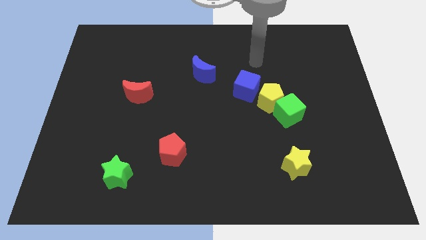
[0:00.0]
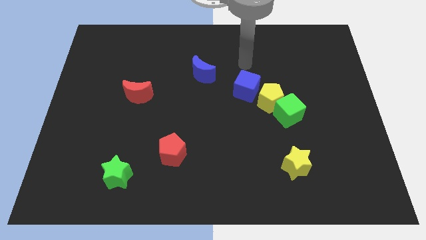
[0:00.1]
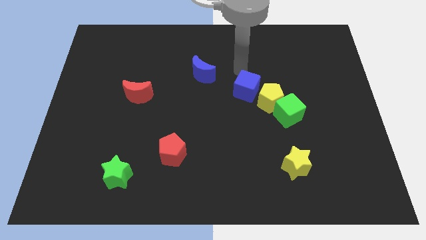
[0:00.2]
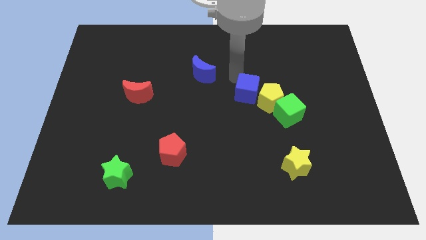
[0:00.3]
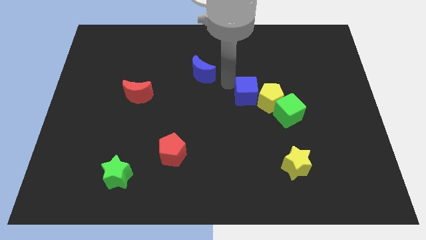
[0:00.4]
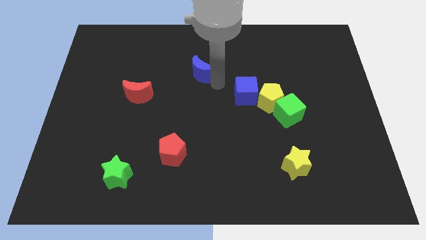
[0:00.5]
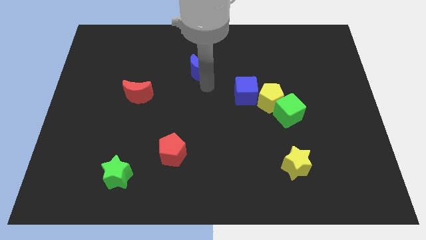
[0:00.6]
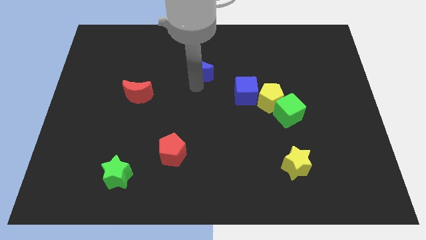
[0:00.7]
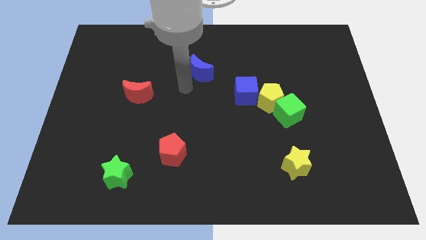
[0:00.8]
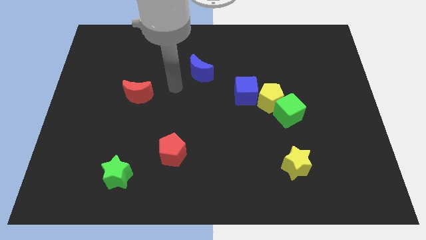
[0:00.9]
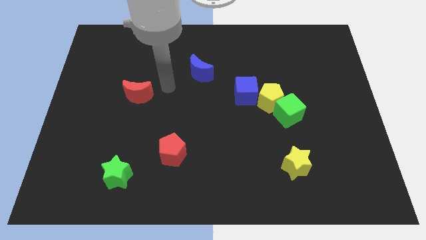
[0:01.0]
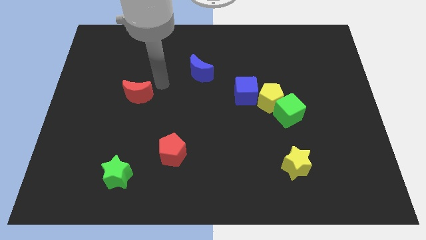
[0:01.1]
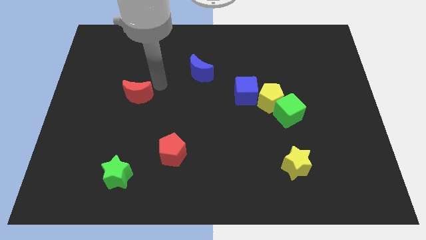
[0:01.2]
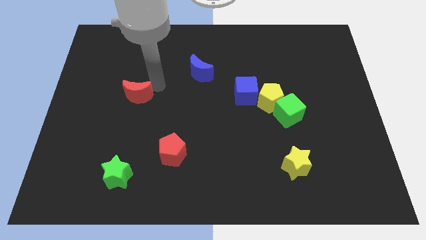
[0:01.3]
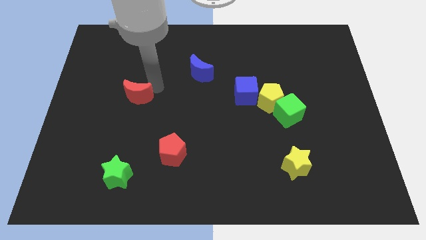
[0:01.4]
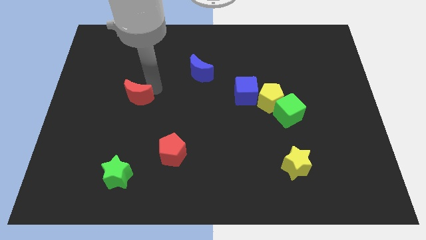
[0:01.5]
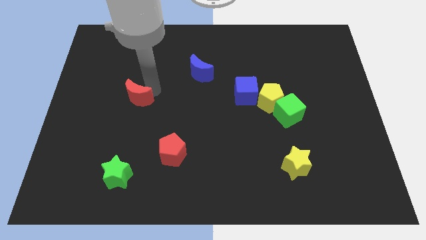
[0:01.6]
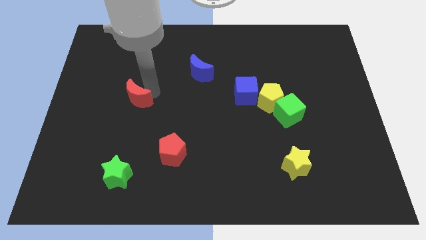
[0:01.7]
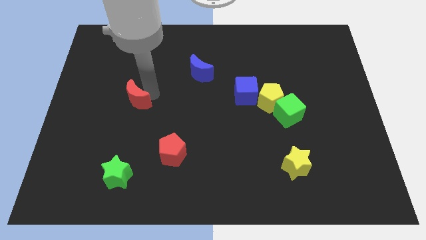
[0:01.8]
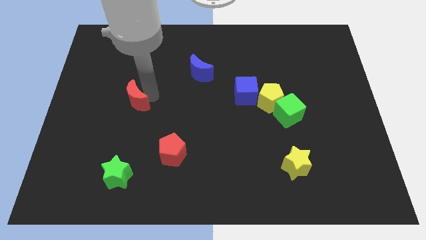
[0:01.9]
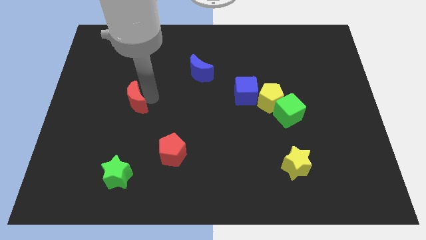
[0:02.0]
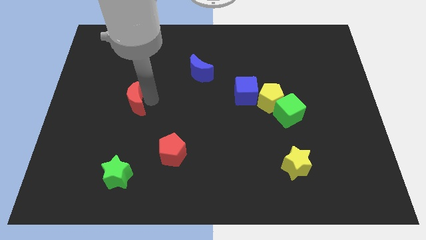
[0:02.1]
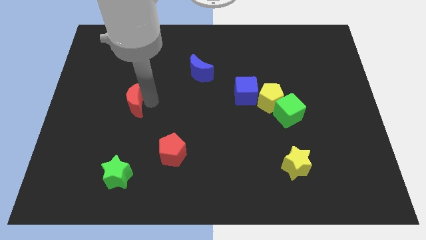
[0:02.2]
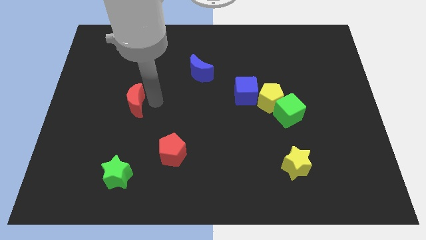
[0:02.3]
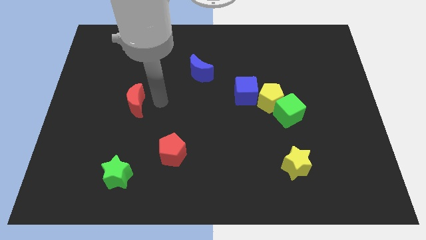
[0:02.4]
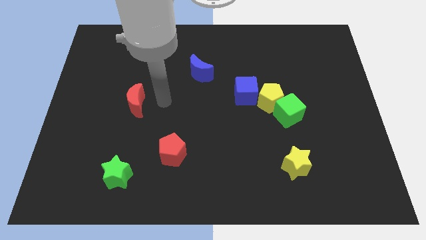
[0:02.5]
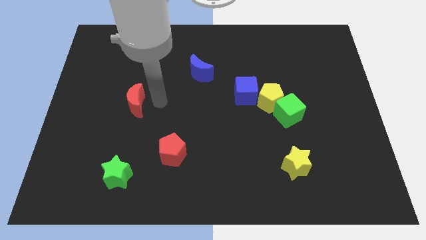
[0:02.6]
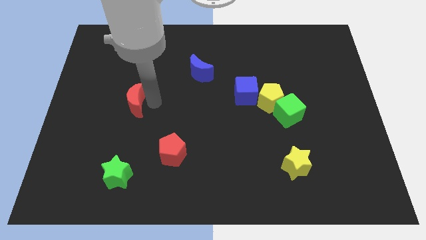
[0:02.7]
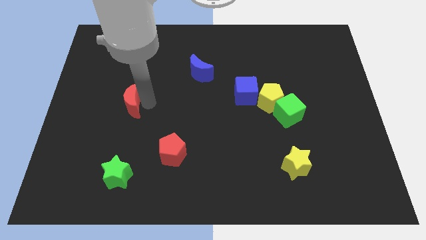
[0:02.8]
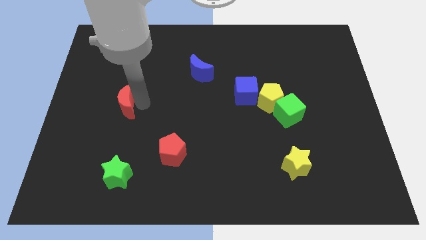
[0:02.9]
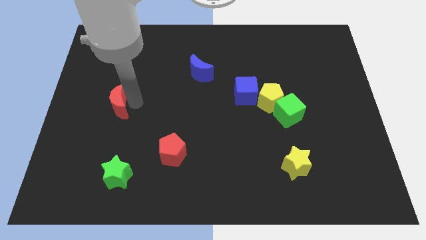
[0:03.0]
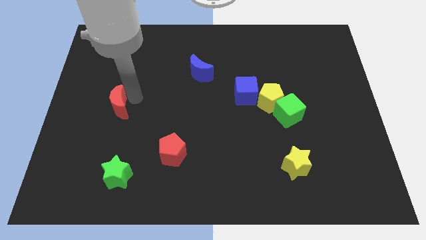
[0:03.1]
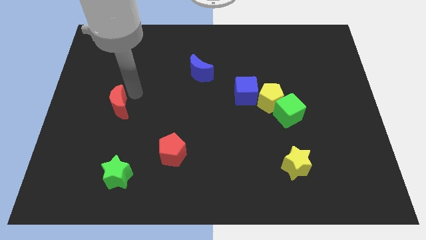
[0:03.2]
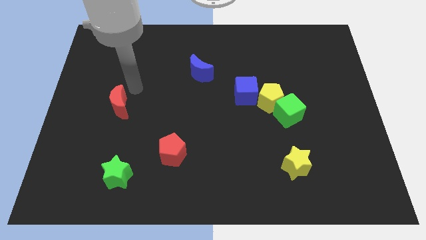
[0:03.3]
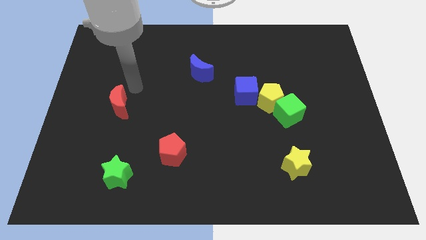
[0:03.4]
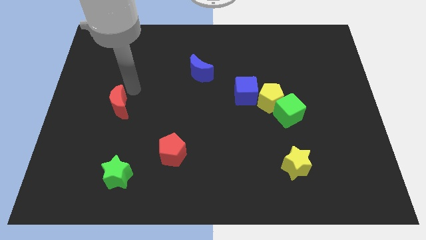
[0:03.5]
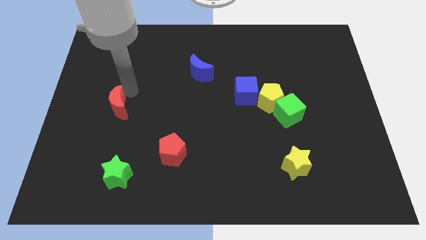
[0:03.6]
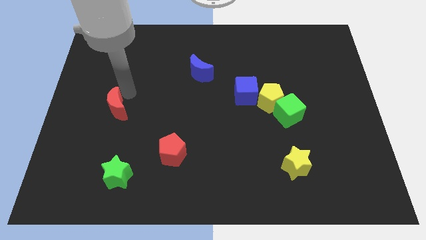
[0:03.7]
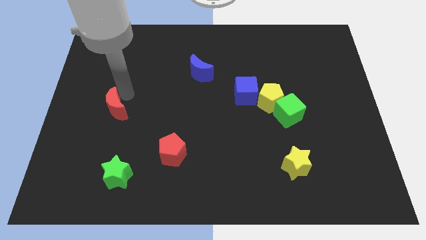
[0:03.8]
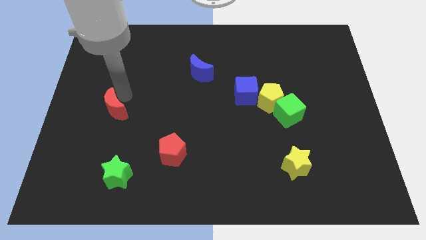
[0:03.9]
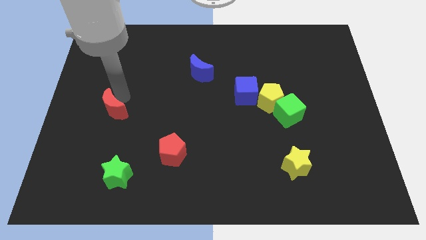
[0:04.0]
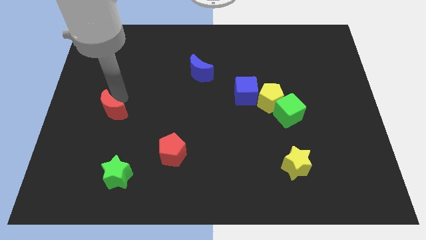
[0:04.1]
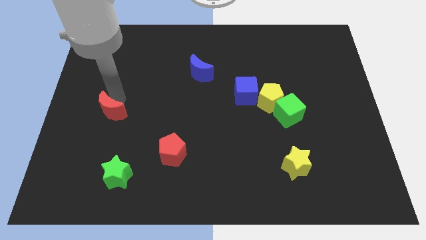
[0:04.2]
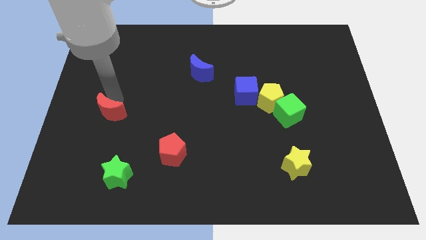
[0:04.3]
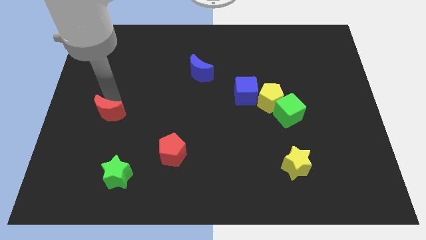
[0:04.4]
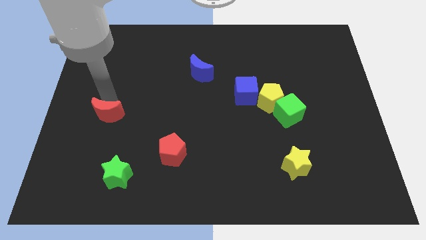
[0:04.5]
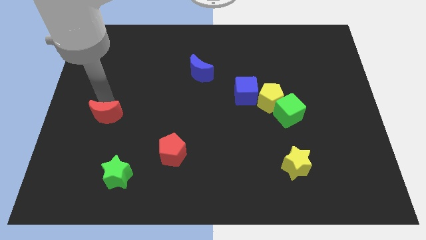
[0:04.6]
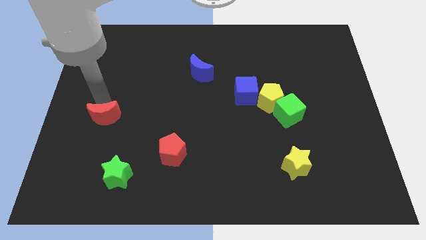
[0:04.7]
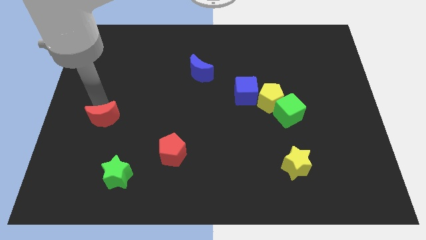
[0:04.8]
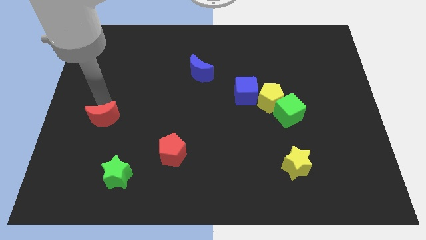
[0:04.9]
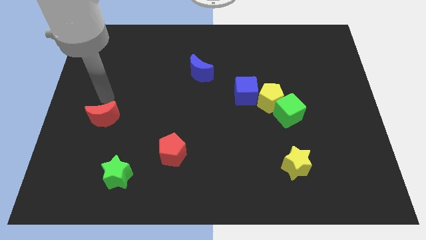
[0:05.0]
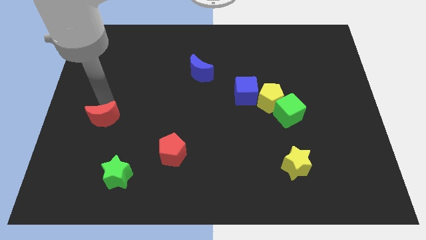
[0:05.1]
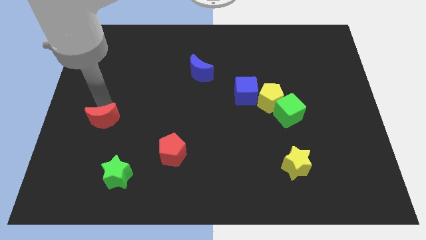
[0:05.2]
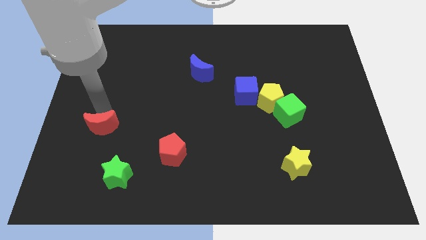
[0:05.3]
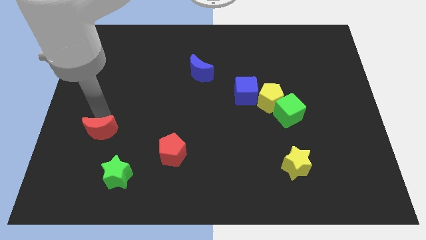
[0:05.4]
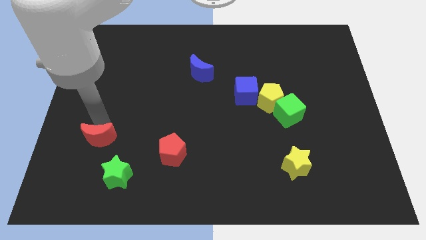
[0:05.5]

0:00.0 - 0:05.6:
push the red moon diagonally up and to the left of the green star

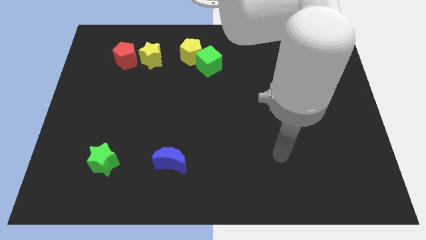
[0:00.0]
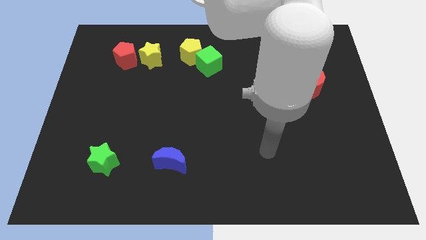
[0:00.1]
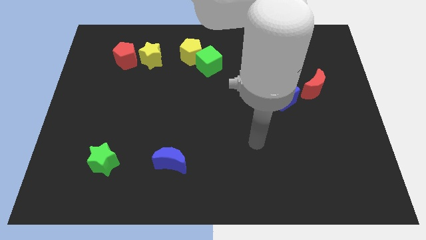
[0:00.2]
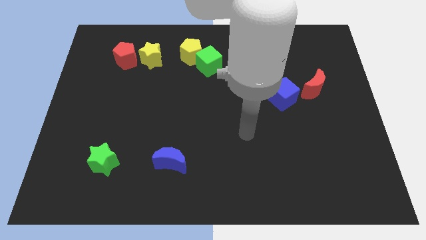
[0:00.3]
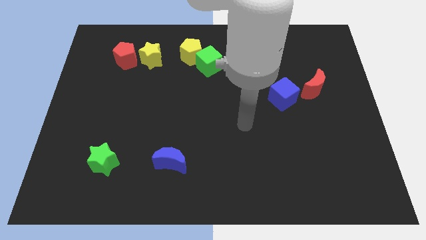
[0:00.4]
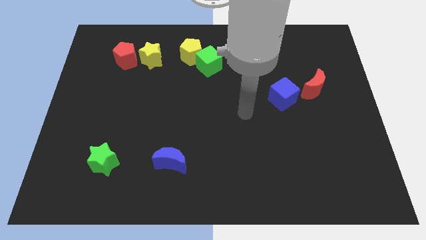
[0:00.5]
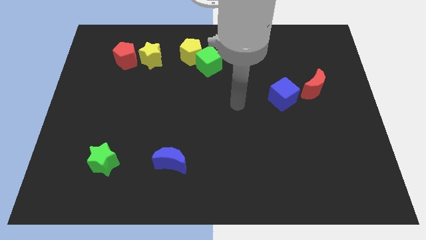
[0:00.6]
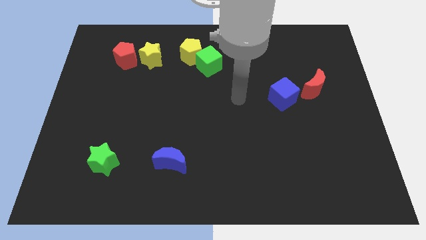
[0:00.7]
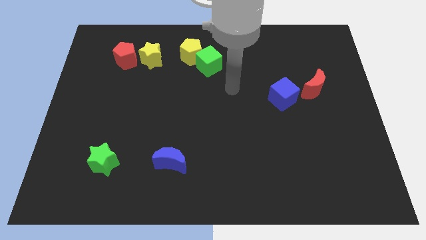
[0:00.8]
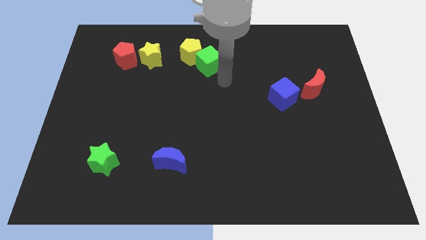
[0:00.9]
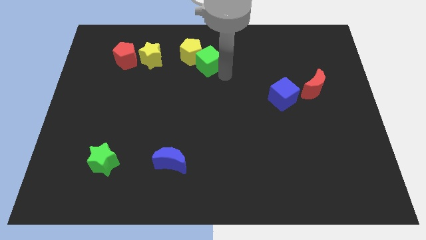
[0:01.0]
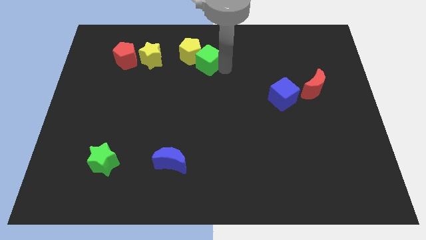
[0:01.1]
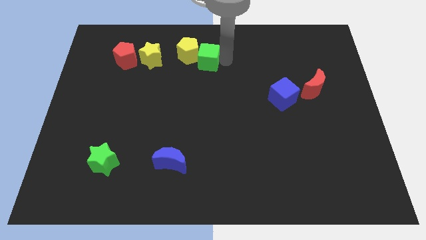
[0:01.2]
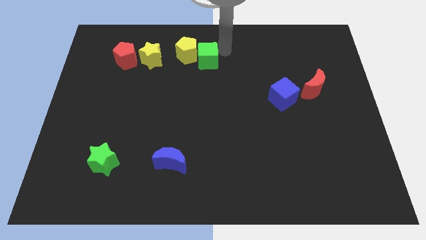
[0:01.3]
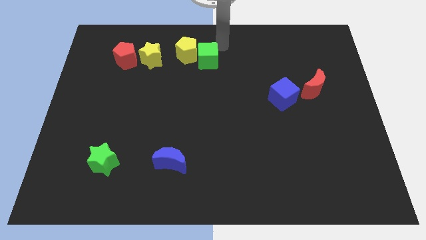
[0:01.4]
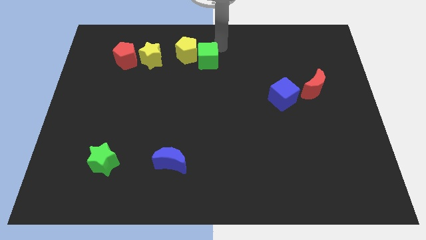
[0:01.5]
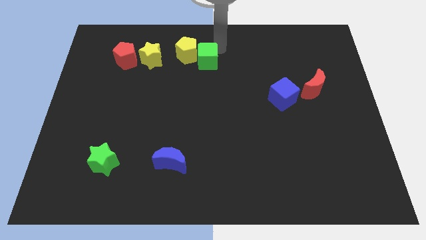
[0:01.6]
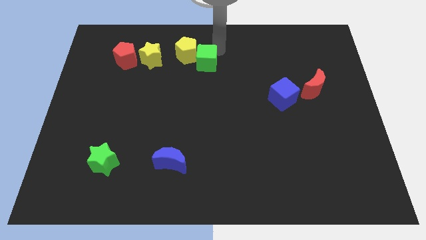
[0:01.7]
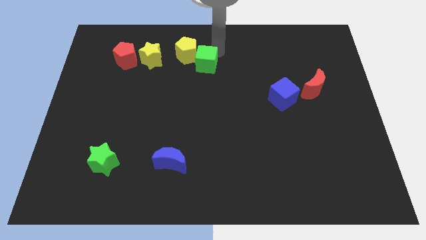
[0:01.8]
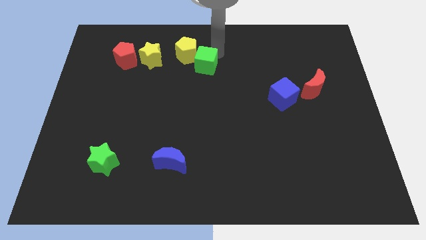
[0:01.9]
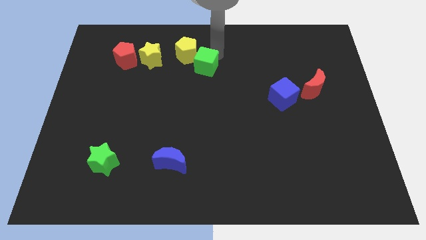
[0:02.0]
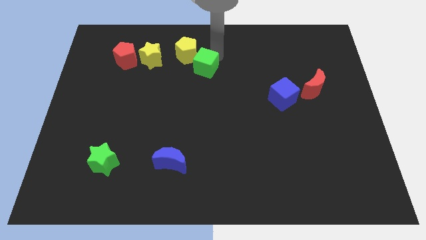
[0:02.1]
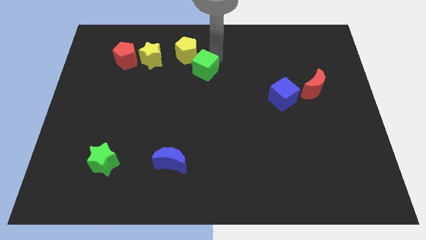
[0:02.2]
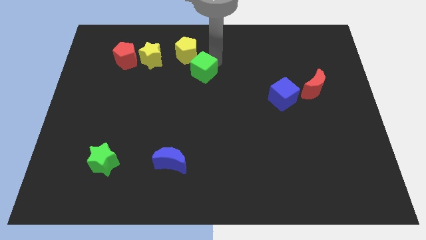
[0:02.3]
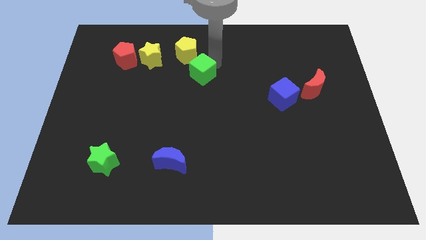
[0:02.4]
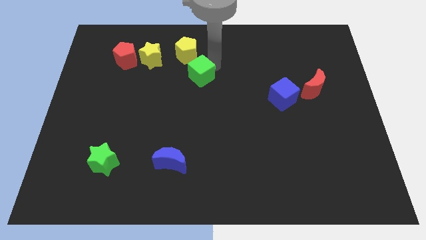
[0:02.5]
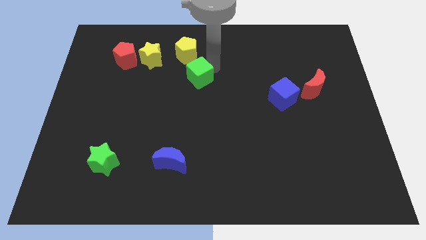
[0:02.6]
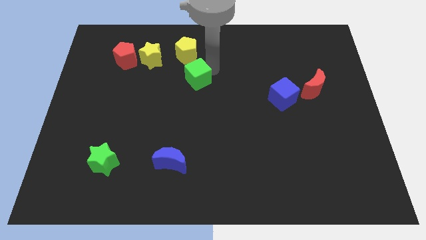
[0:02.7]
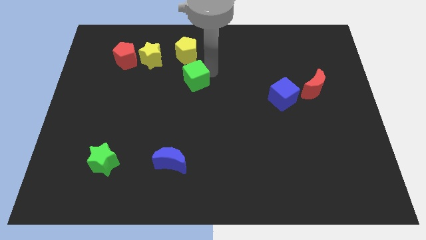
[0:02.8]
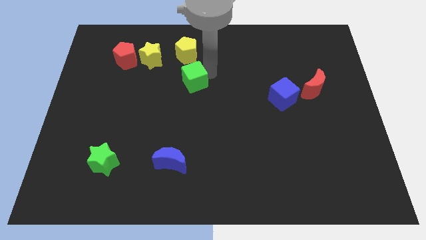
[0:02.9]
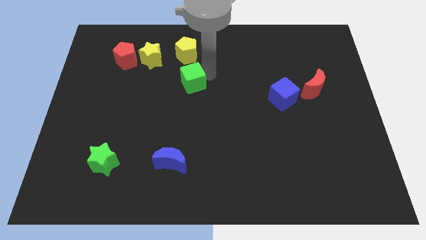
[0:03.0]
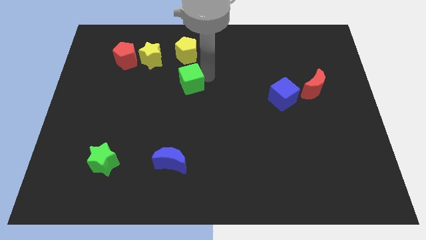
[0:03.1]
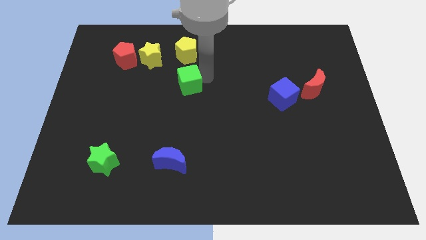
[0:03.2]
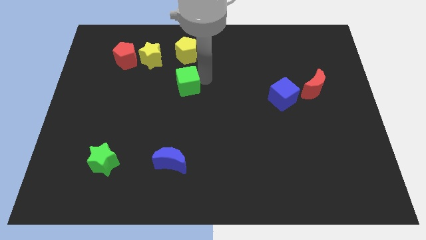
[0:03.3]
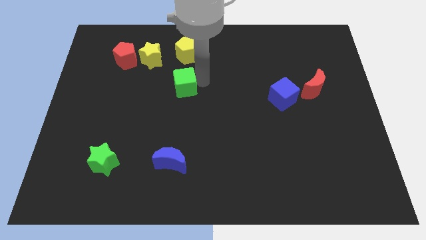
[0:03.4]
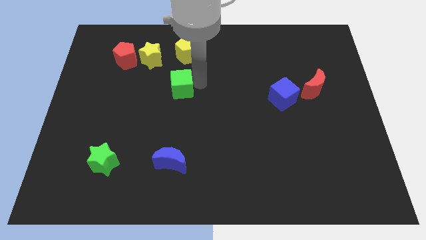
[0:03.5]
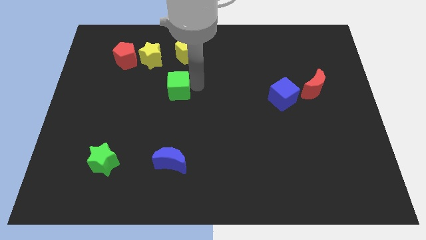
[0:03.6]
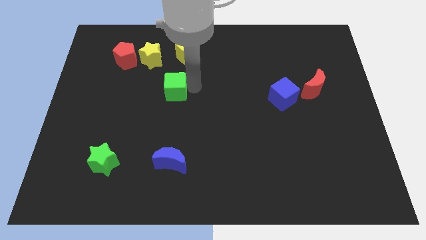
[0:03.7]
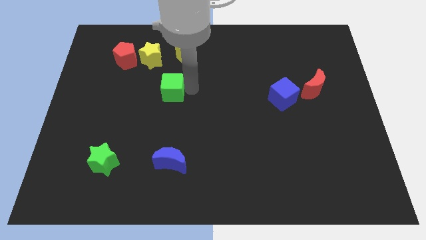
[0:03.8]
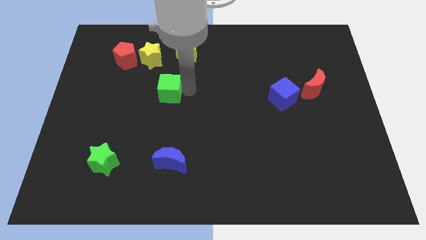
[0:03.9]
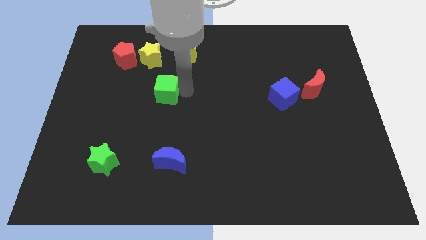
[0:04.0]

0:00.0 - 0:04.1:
move the green cube below the yellow star
